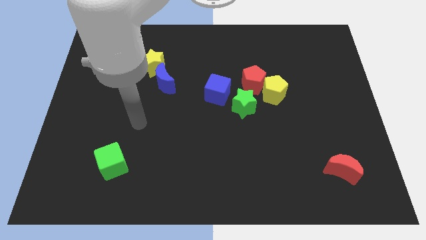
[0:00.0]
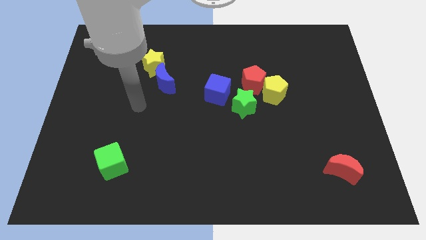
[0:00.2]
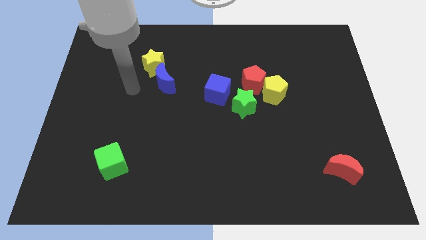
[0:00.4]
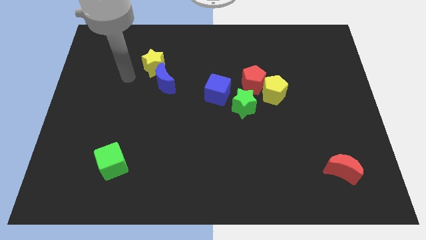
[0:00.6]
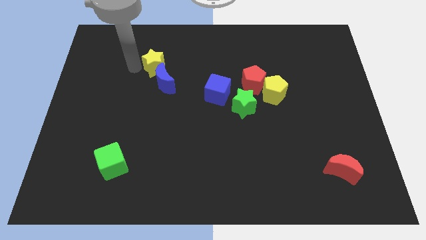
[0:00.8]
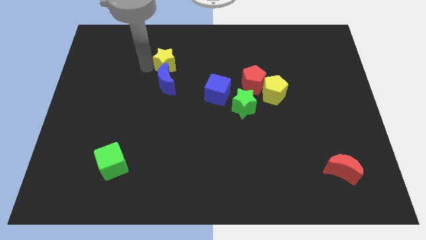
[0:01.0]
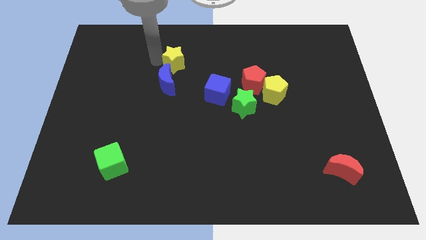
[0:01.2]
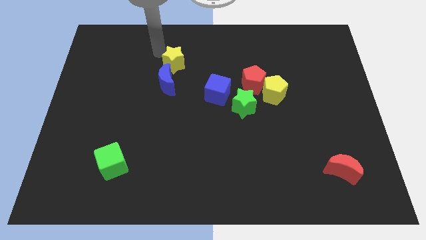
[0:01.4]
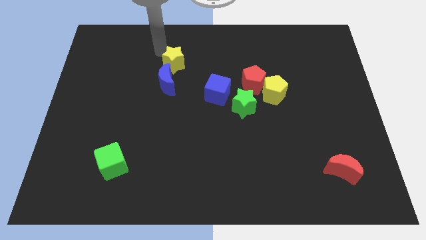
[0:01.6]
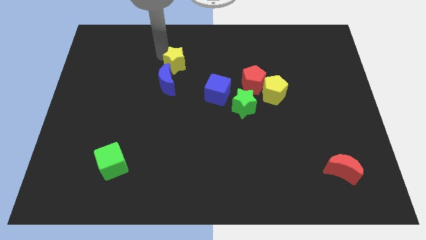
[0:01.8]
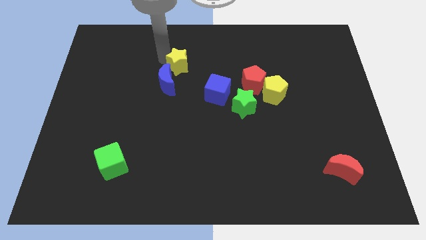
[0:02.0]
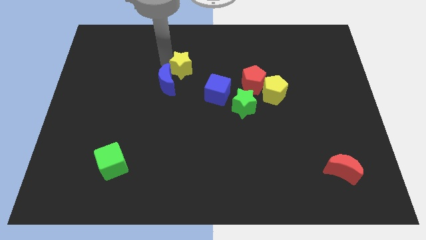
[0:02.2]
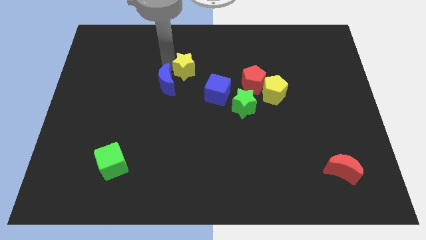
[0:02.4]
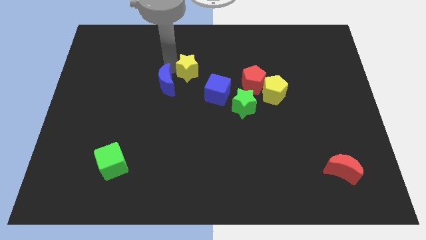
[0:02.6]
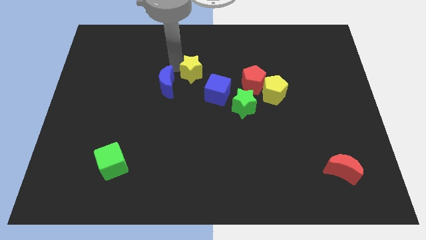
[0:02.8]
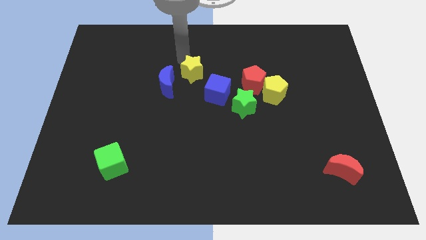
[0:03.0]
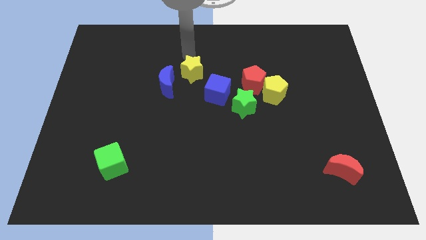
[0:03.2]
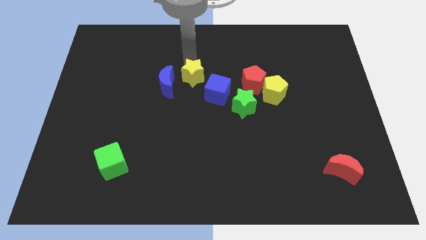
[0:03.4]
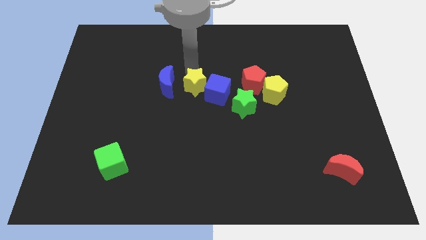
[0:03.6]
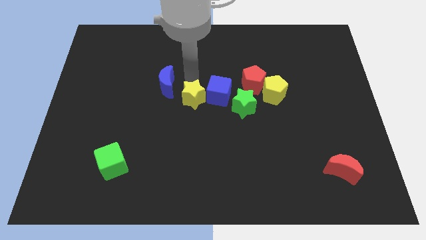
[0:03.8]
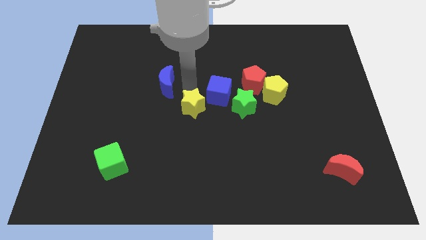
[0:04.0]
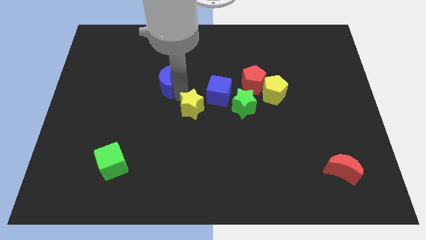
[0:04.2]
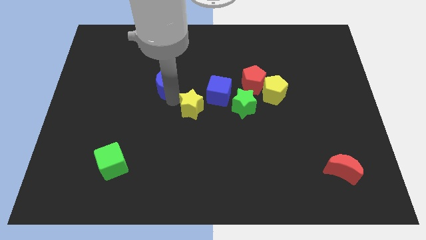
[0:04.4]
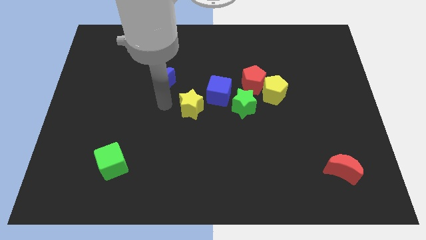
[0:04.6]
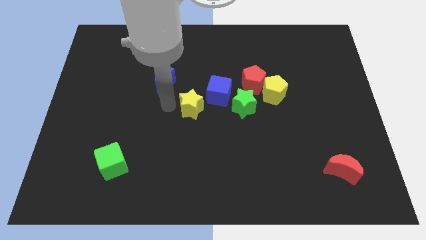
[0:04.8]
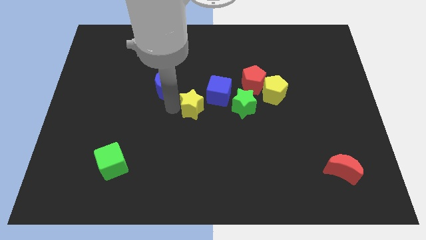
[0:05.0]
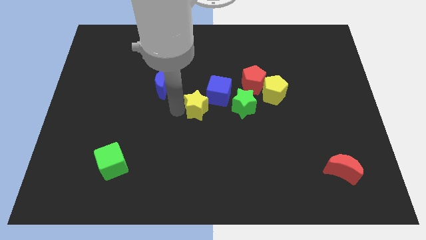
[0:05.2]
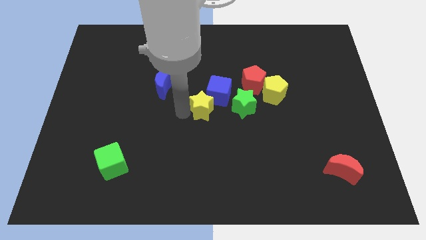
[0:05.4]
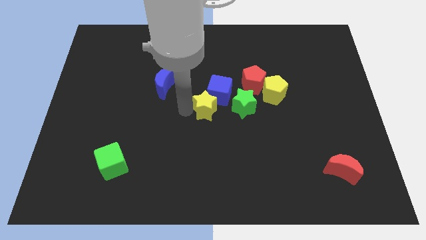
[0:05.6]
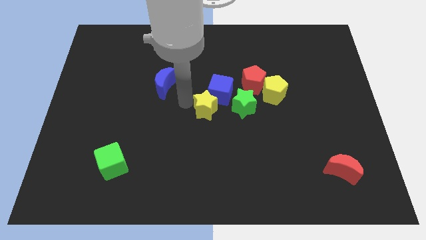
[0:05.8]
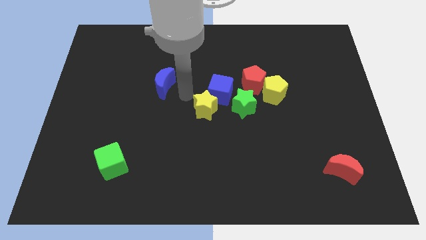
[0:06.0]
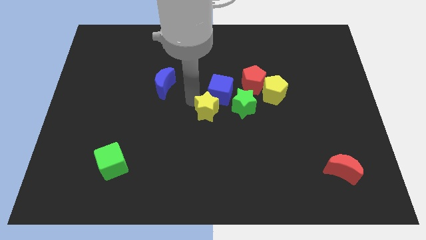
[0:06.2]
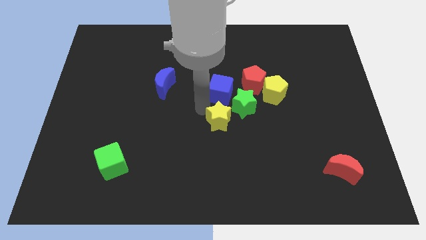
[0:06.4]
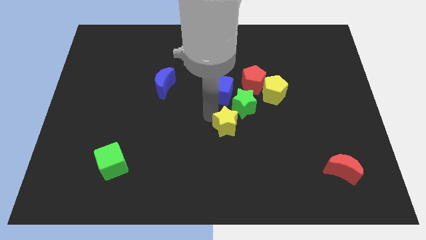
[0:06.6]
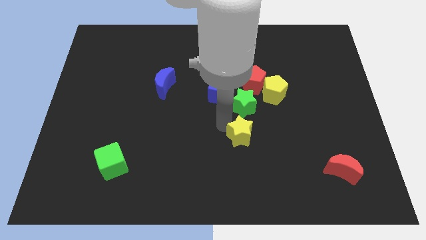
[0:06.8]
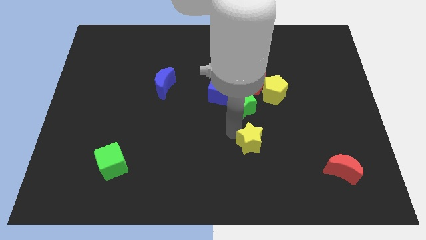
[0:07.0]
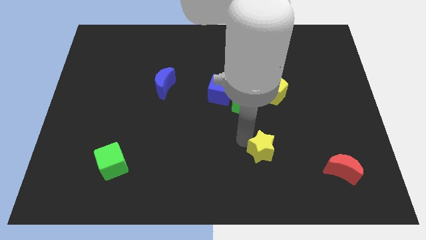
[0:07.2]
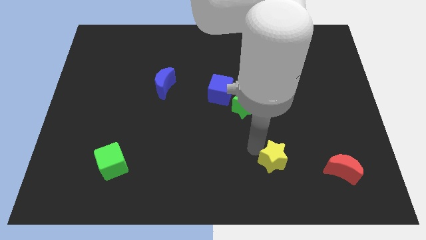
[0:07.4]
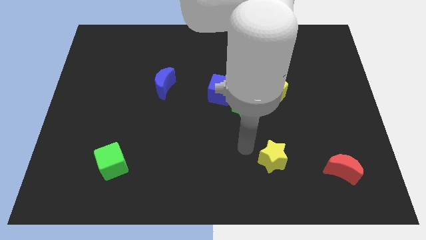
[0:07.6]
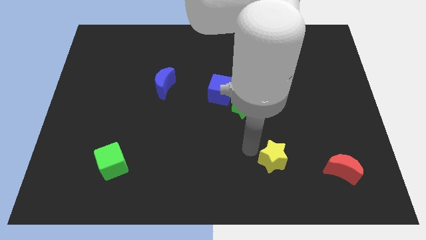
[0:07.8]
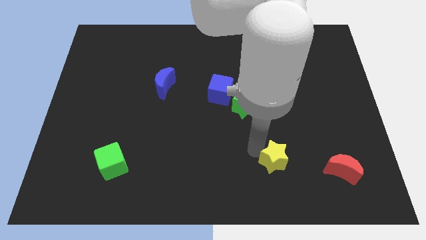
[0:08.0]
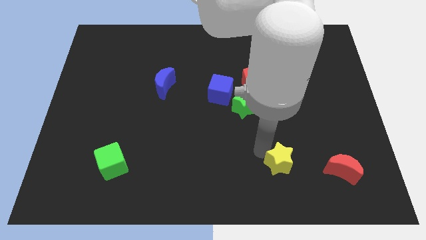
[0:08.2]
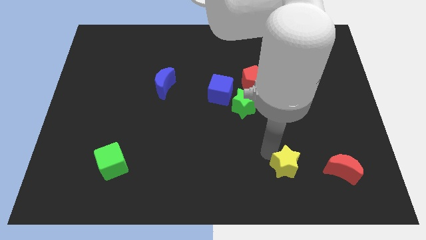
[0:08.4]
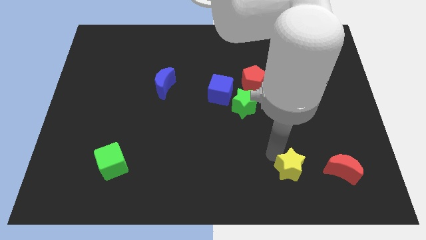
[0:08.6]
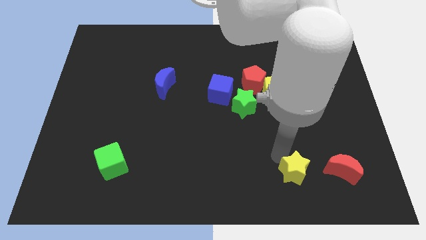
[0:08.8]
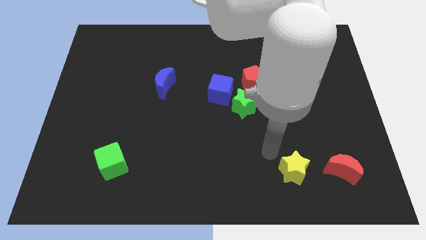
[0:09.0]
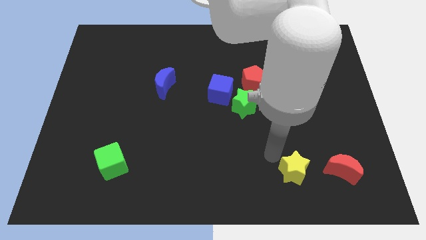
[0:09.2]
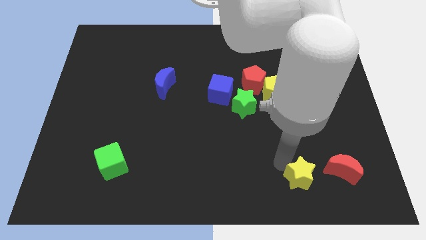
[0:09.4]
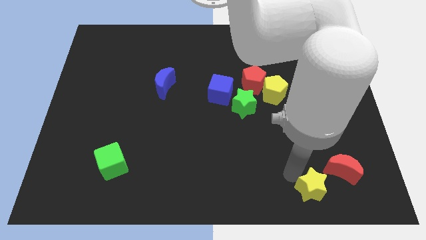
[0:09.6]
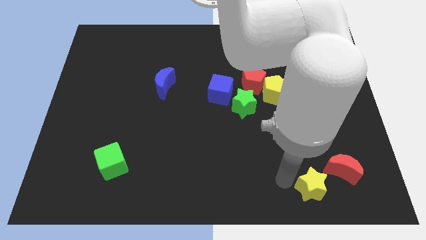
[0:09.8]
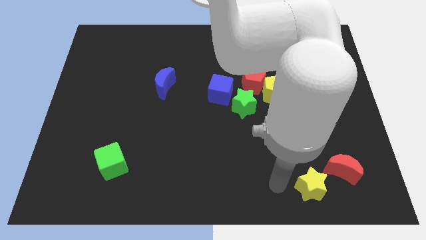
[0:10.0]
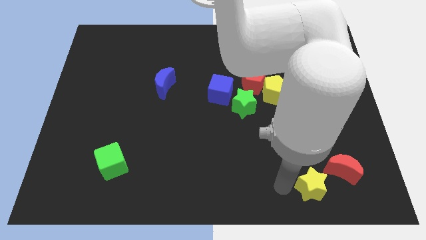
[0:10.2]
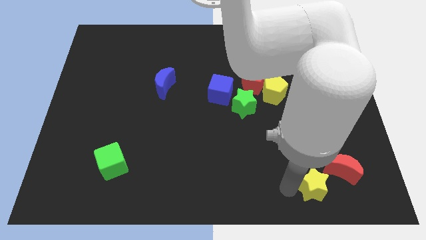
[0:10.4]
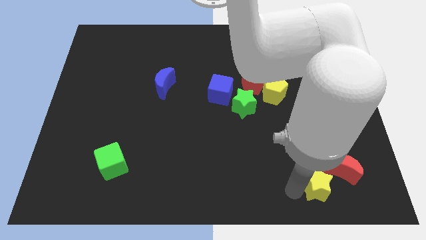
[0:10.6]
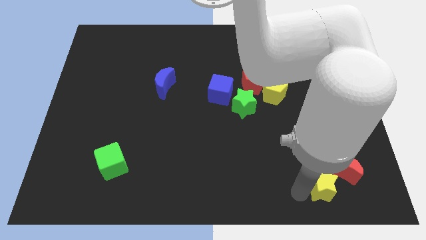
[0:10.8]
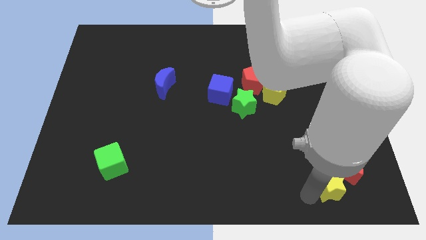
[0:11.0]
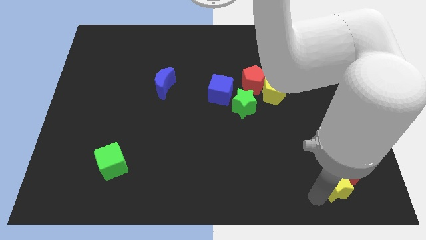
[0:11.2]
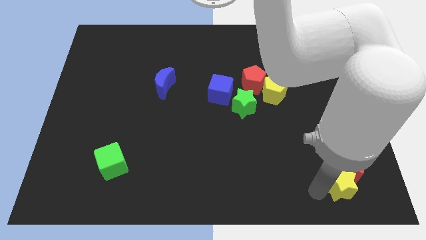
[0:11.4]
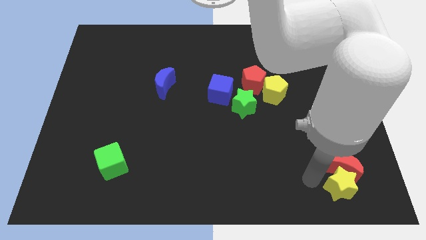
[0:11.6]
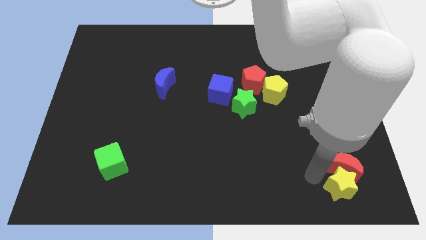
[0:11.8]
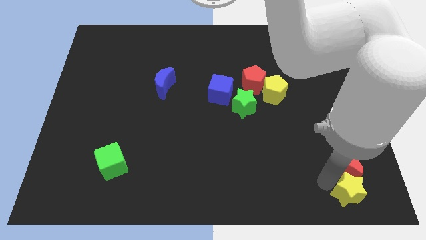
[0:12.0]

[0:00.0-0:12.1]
slide the yellow star to the bottom right

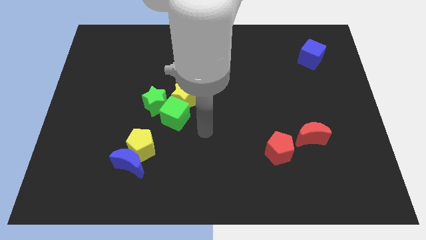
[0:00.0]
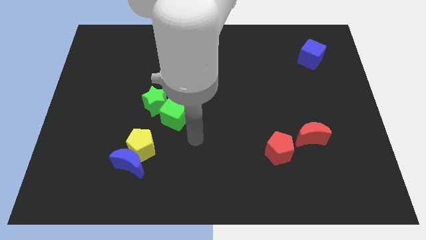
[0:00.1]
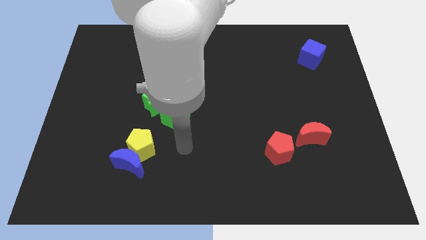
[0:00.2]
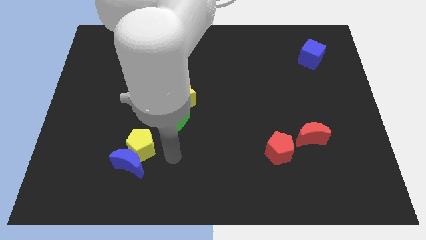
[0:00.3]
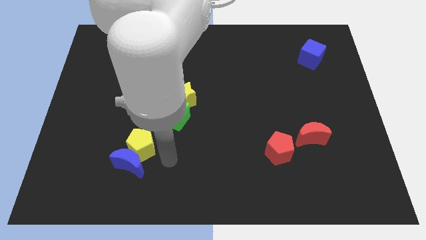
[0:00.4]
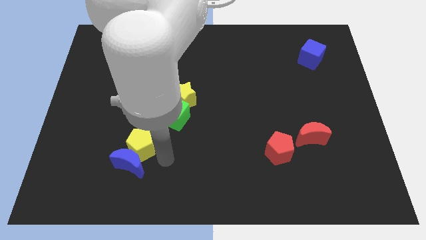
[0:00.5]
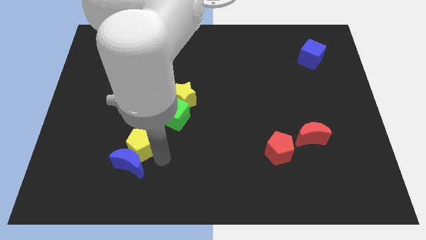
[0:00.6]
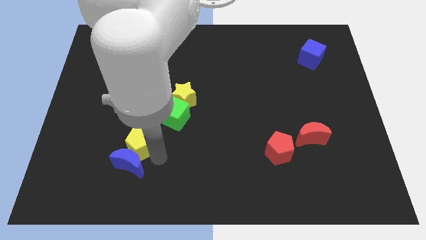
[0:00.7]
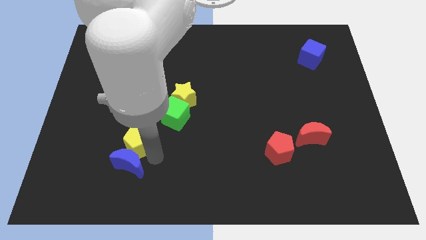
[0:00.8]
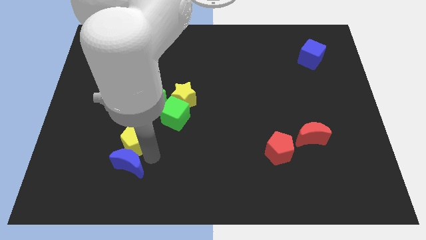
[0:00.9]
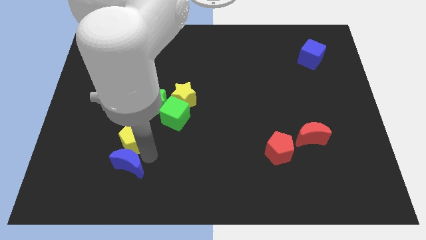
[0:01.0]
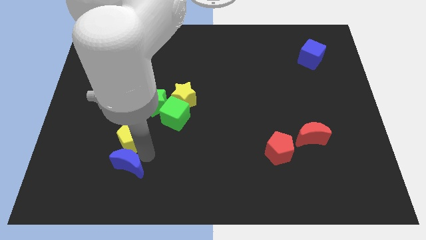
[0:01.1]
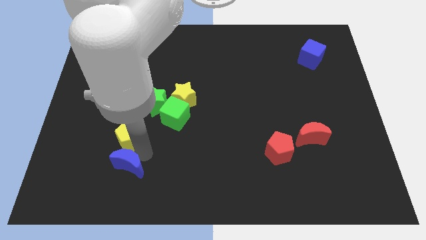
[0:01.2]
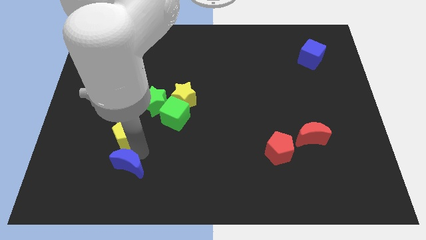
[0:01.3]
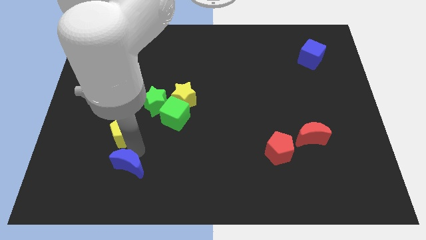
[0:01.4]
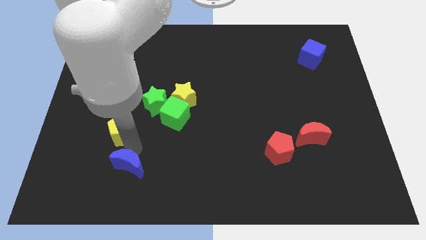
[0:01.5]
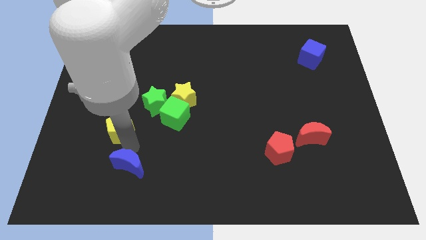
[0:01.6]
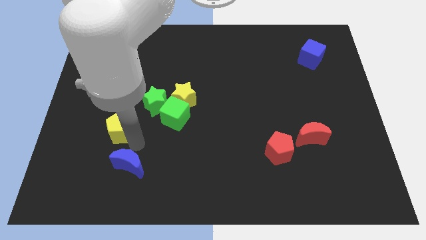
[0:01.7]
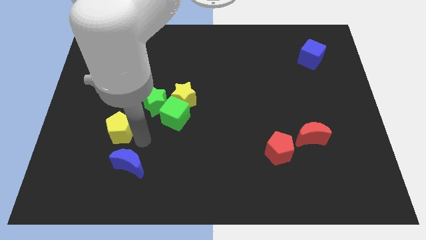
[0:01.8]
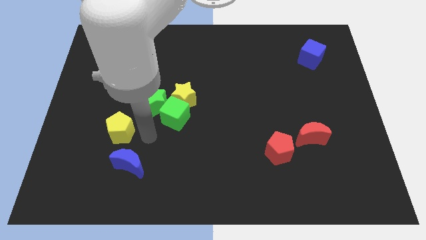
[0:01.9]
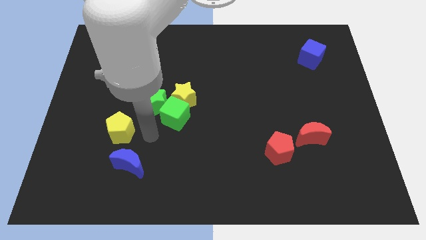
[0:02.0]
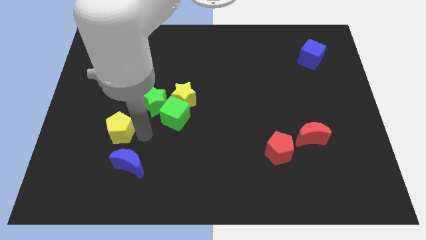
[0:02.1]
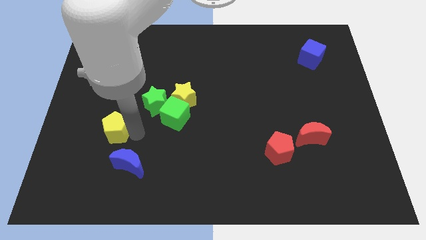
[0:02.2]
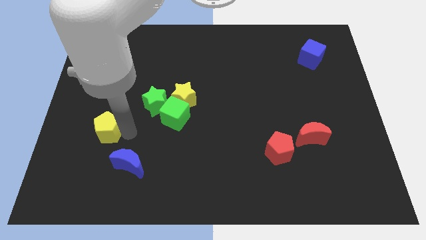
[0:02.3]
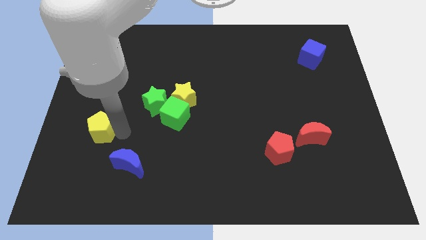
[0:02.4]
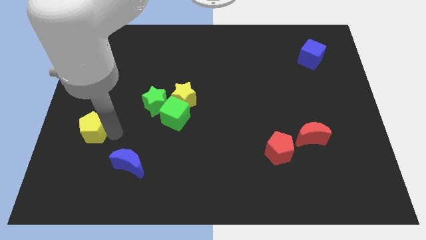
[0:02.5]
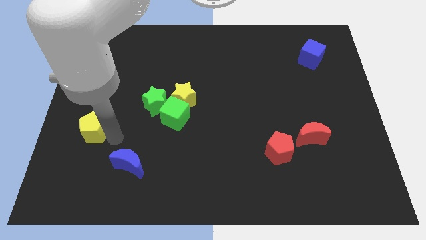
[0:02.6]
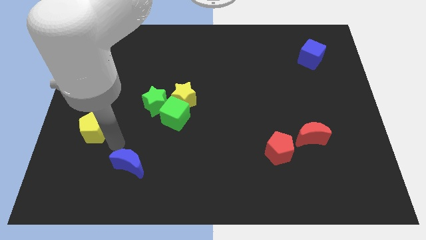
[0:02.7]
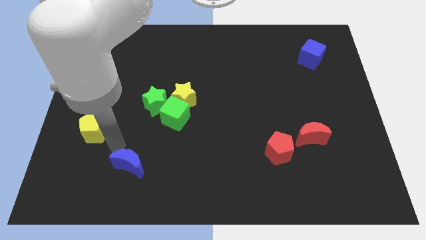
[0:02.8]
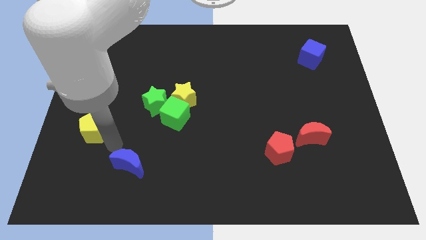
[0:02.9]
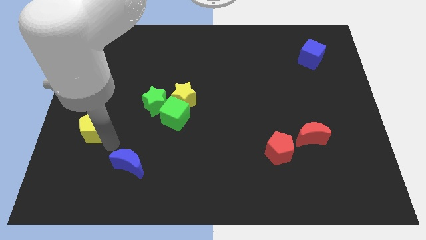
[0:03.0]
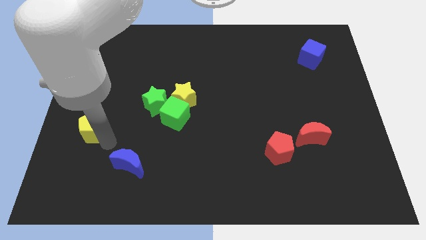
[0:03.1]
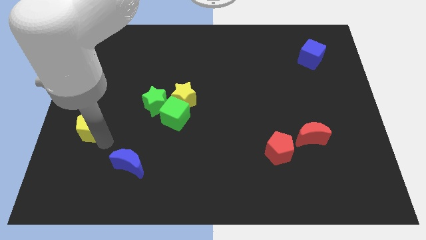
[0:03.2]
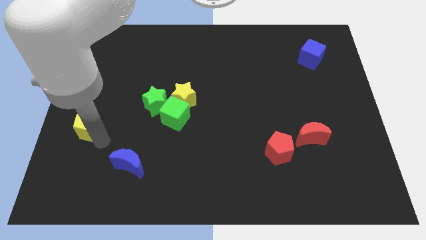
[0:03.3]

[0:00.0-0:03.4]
push the yellow pentagon to the center left
